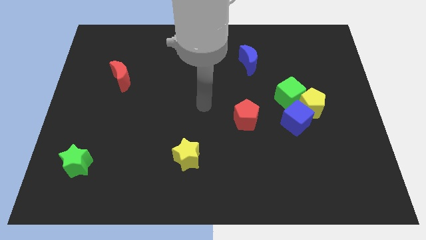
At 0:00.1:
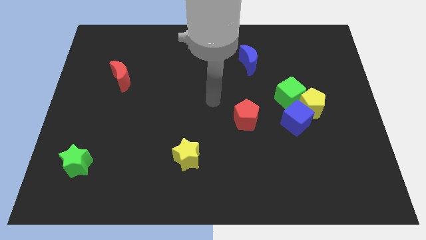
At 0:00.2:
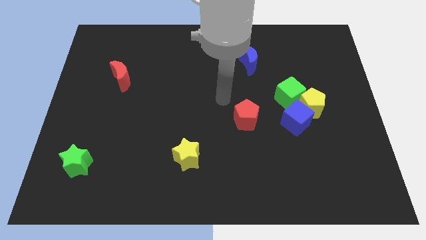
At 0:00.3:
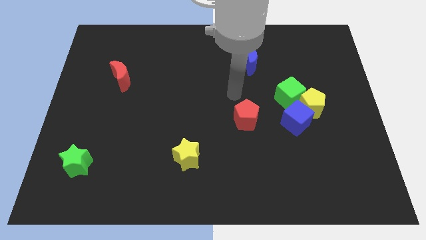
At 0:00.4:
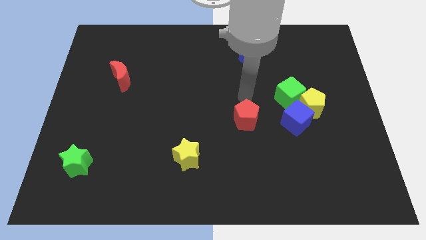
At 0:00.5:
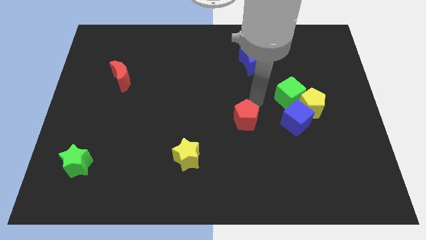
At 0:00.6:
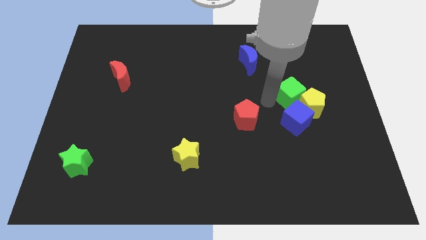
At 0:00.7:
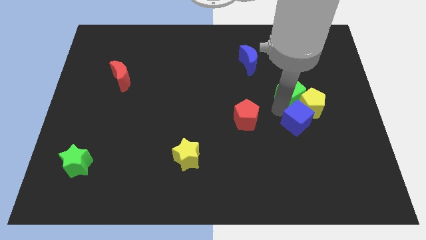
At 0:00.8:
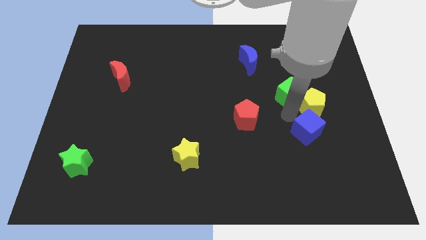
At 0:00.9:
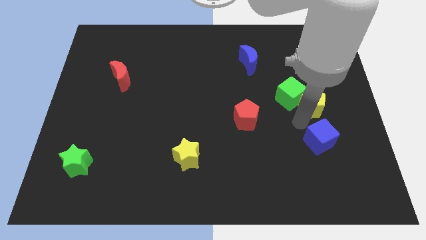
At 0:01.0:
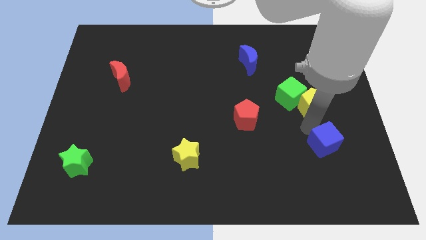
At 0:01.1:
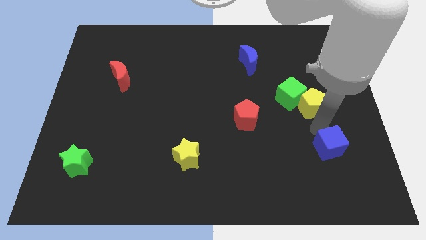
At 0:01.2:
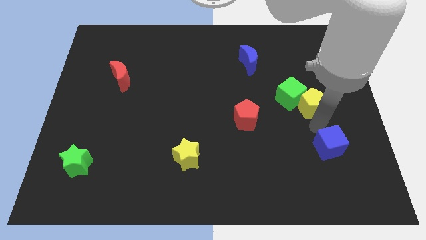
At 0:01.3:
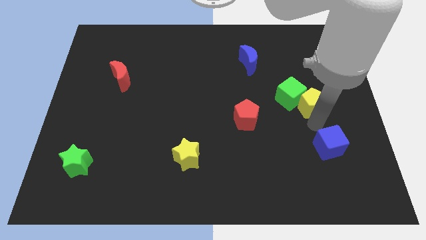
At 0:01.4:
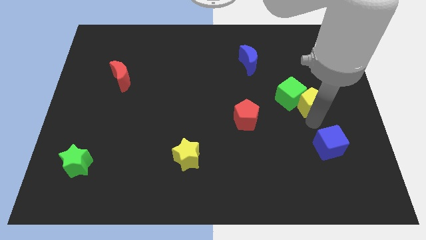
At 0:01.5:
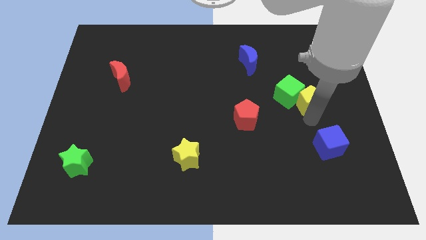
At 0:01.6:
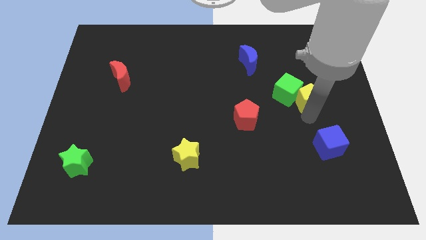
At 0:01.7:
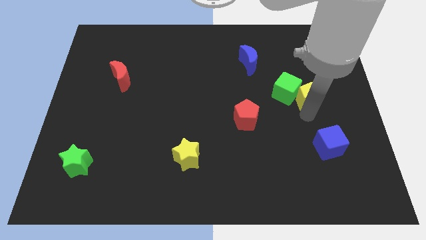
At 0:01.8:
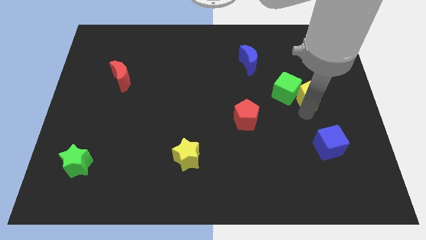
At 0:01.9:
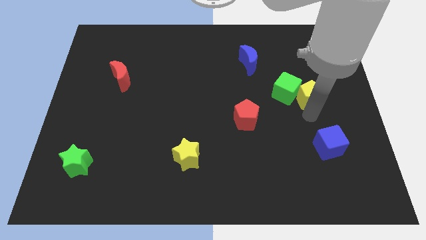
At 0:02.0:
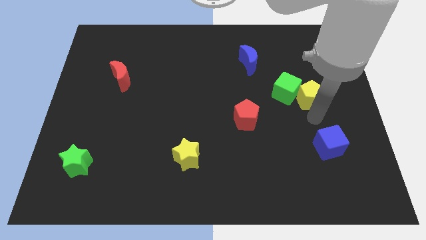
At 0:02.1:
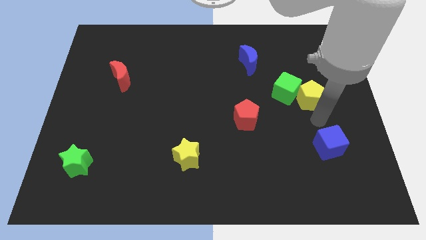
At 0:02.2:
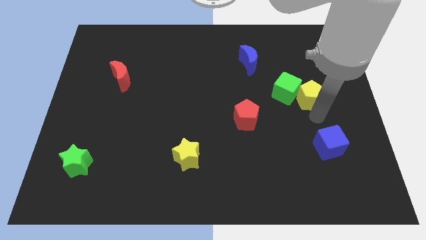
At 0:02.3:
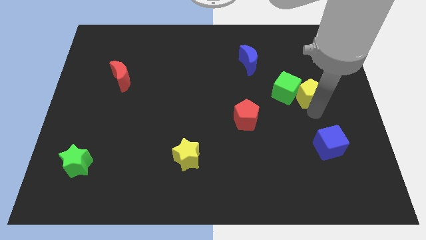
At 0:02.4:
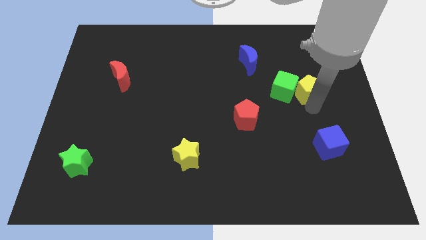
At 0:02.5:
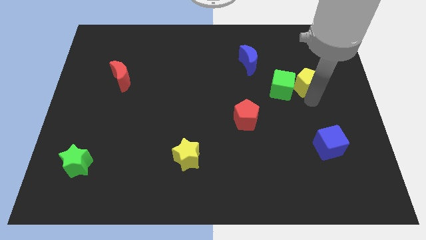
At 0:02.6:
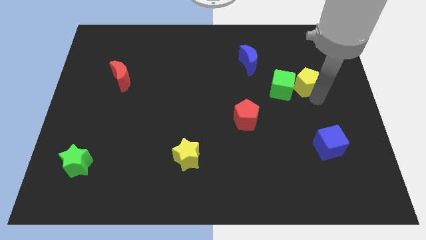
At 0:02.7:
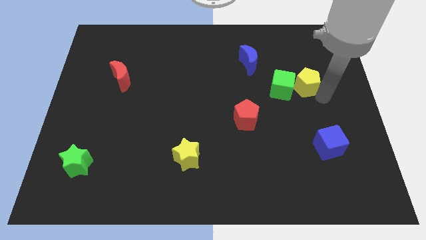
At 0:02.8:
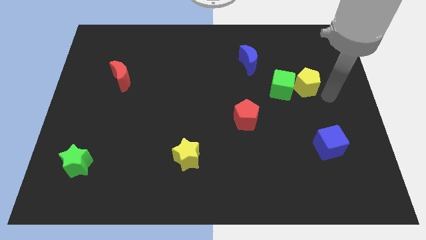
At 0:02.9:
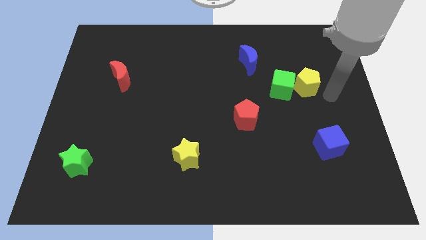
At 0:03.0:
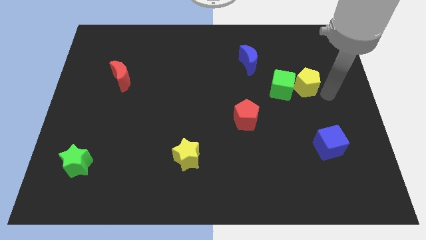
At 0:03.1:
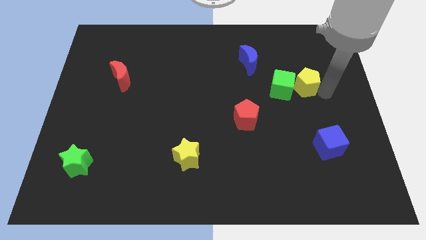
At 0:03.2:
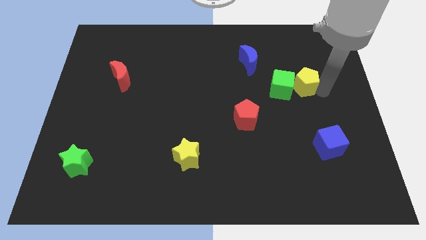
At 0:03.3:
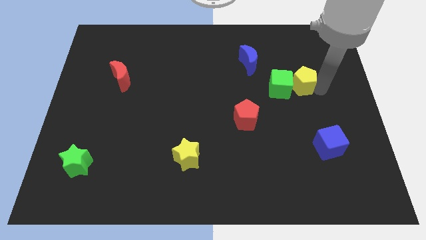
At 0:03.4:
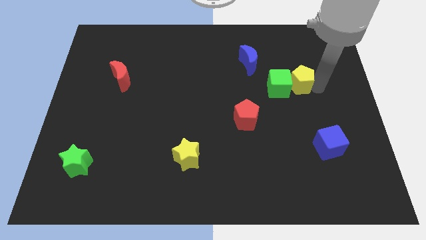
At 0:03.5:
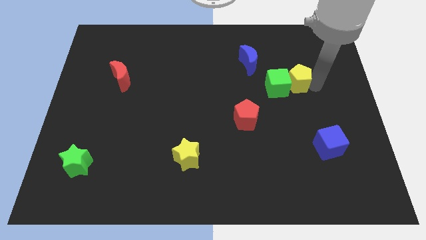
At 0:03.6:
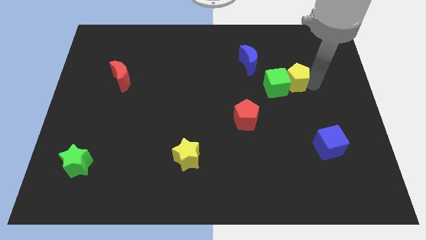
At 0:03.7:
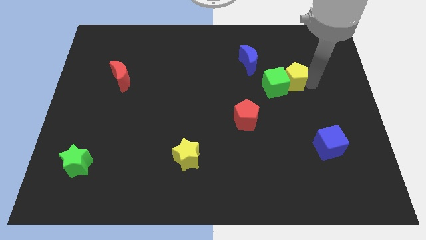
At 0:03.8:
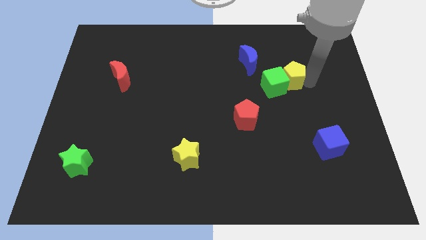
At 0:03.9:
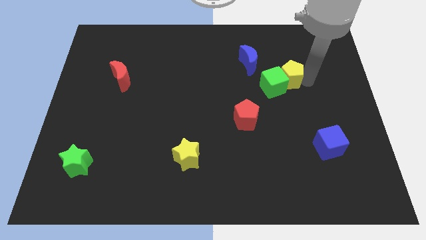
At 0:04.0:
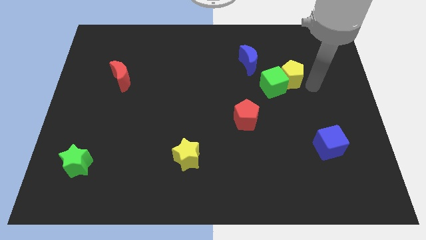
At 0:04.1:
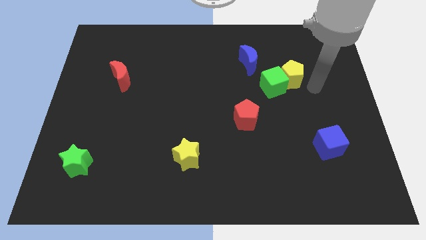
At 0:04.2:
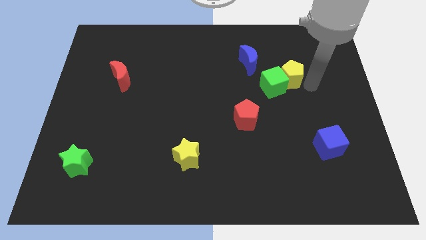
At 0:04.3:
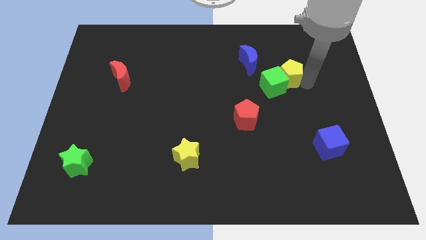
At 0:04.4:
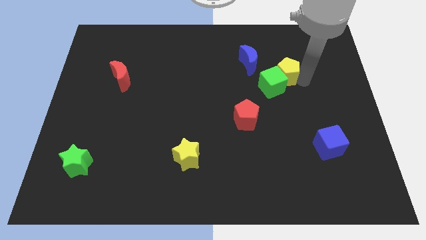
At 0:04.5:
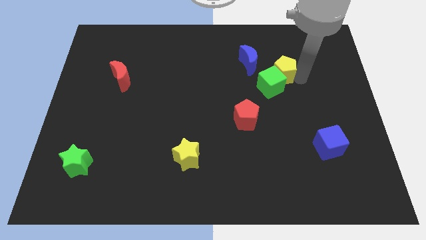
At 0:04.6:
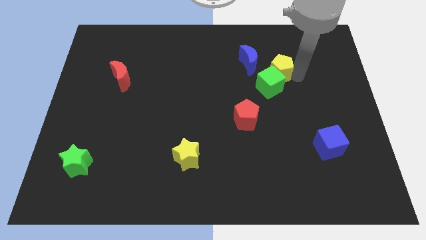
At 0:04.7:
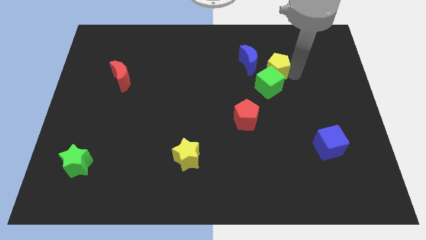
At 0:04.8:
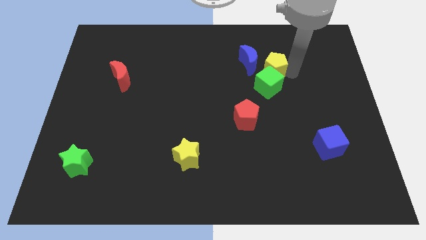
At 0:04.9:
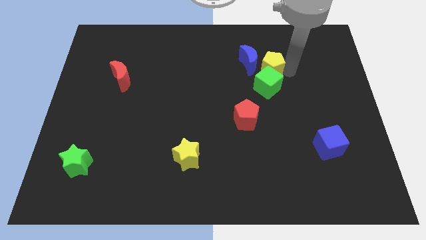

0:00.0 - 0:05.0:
slide the yellow pentagon next to the blue moon

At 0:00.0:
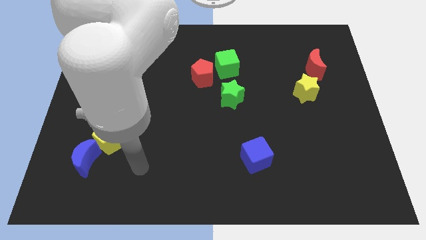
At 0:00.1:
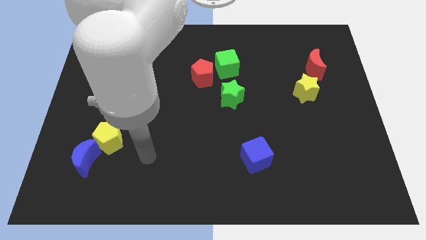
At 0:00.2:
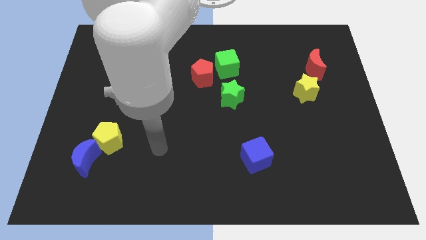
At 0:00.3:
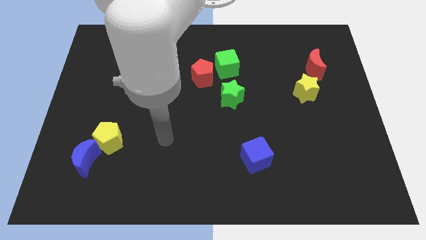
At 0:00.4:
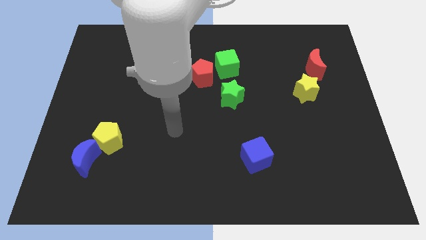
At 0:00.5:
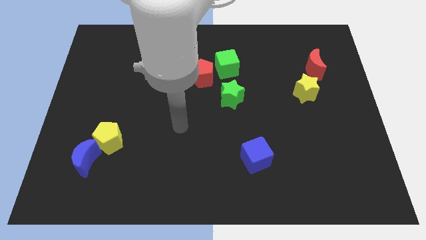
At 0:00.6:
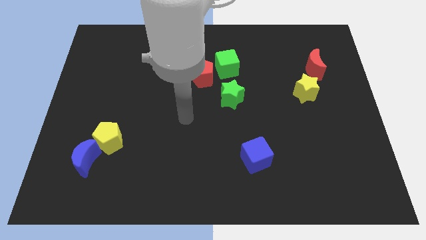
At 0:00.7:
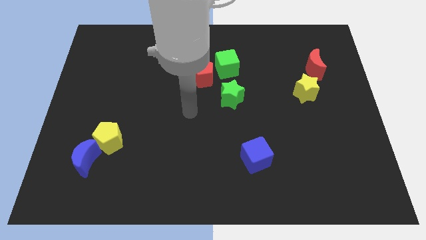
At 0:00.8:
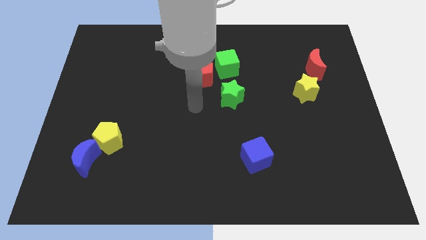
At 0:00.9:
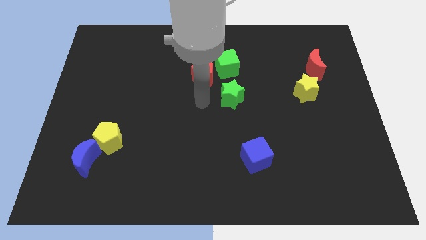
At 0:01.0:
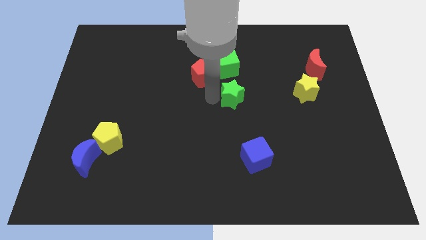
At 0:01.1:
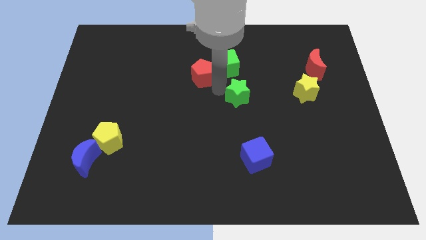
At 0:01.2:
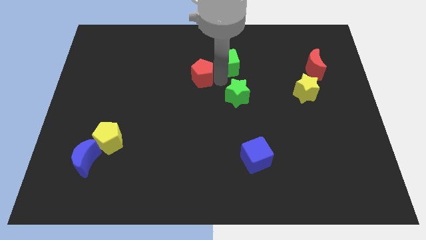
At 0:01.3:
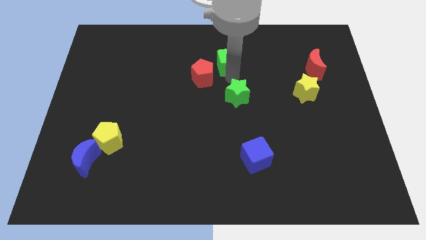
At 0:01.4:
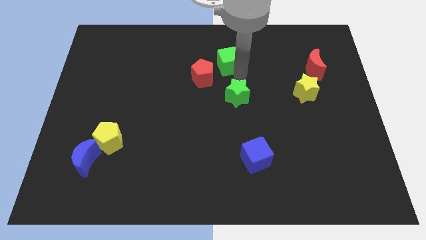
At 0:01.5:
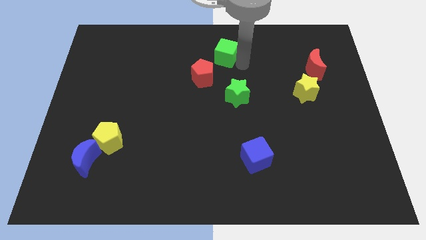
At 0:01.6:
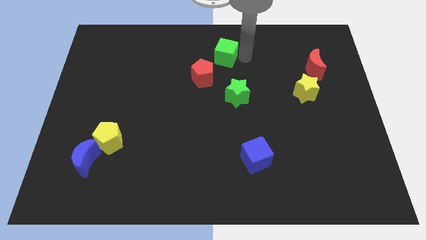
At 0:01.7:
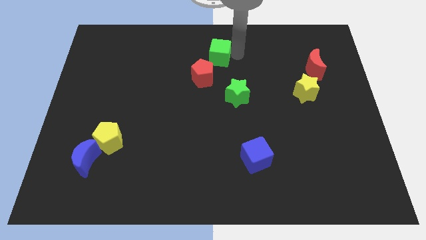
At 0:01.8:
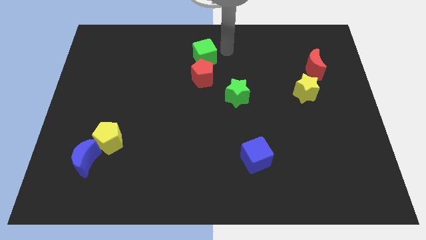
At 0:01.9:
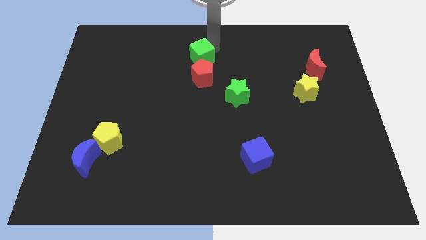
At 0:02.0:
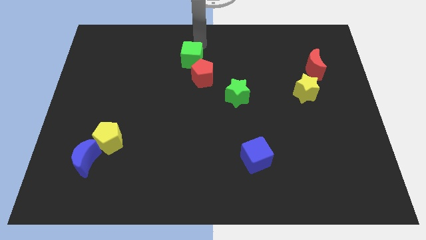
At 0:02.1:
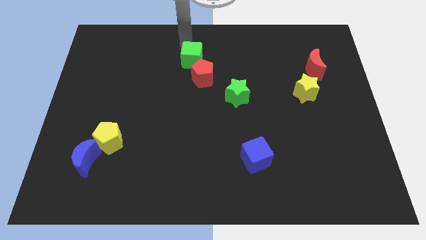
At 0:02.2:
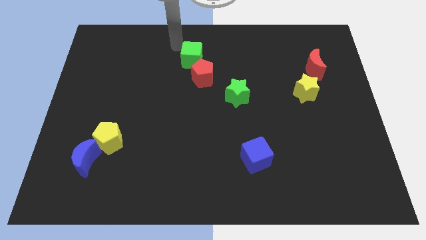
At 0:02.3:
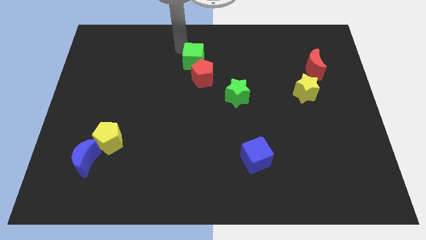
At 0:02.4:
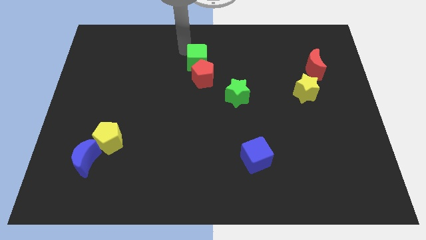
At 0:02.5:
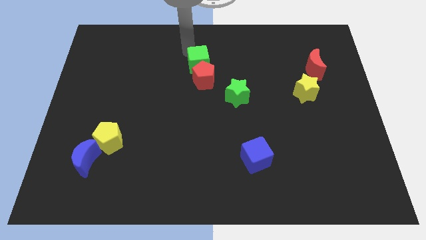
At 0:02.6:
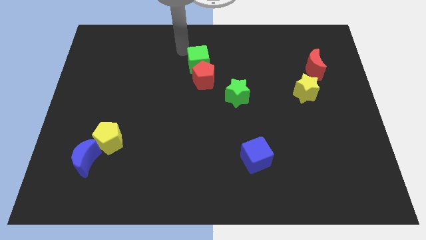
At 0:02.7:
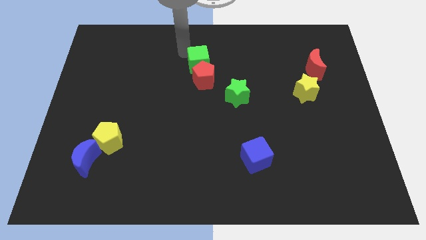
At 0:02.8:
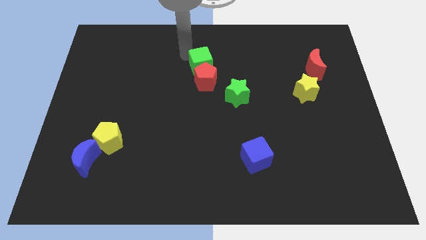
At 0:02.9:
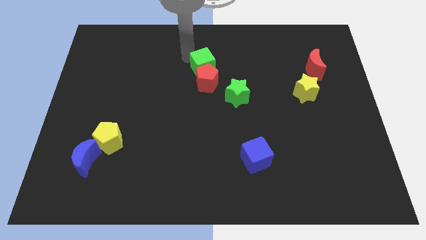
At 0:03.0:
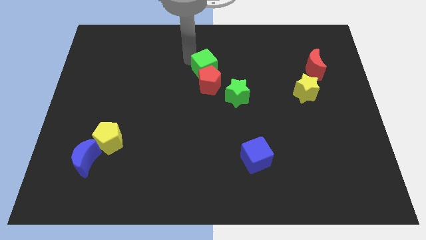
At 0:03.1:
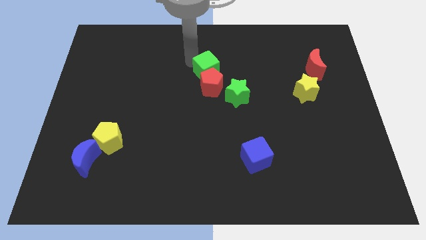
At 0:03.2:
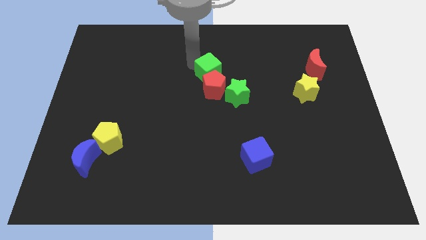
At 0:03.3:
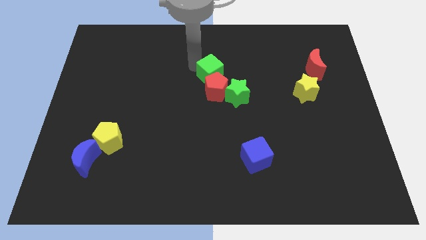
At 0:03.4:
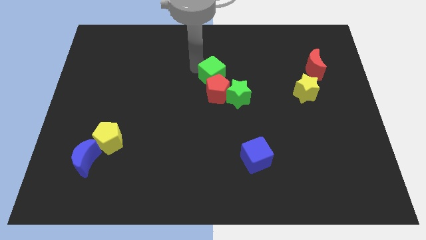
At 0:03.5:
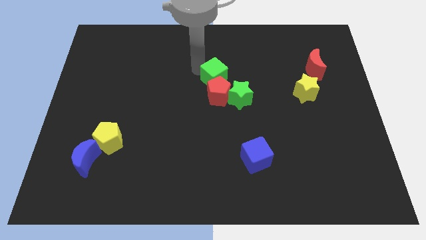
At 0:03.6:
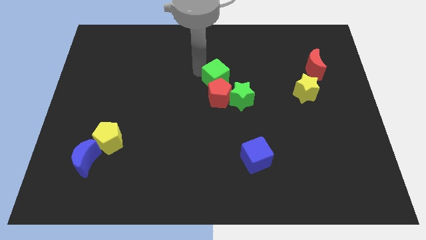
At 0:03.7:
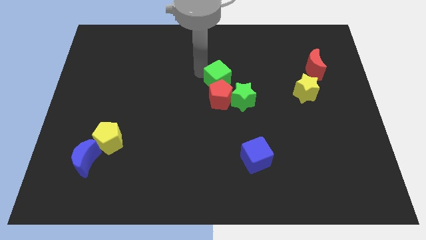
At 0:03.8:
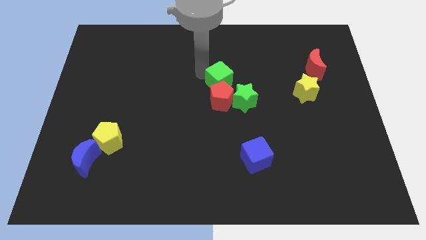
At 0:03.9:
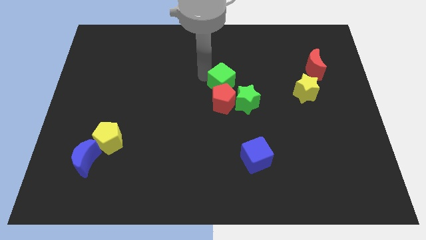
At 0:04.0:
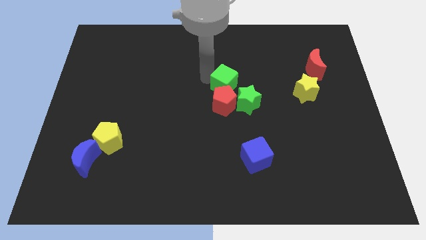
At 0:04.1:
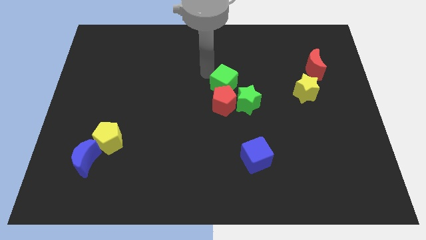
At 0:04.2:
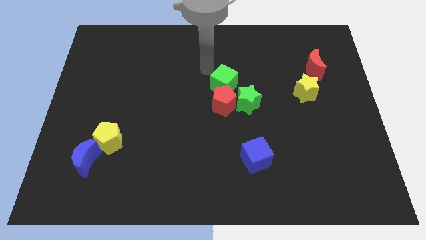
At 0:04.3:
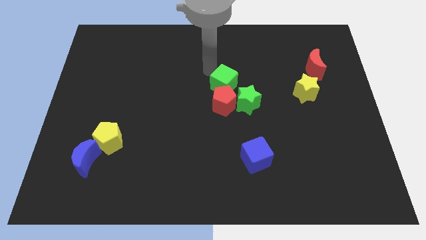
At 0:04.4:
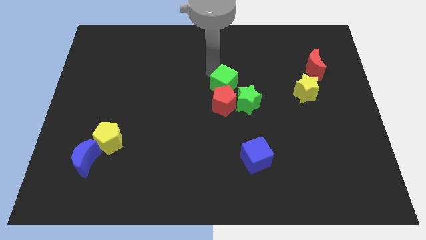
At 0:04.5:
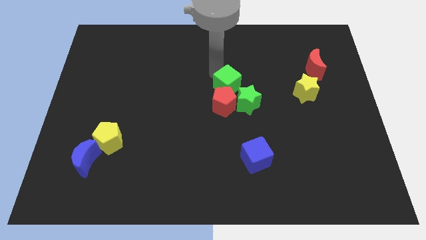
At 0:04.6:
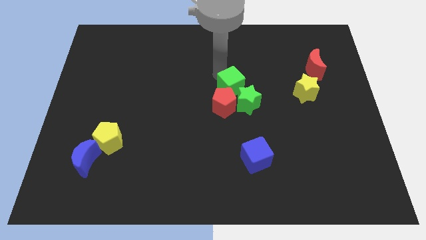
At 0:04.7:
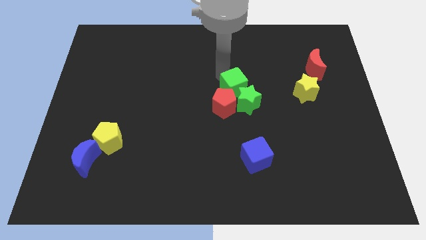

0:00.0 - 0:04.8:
push the green cube next to the green star
